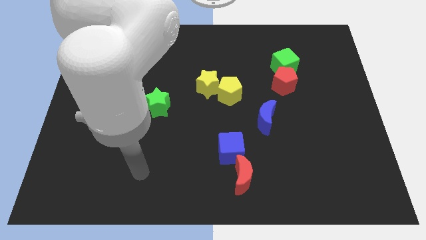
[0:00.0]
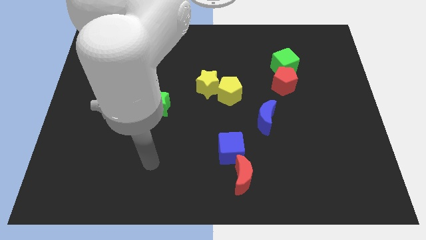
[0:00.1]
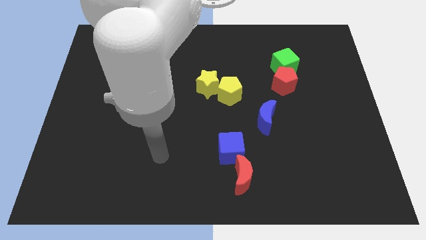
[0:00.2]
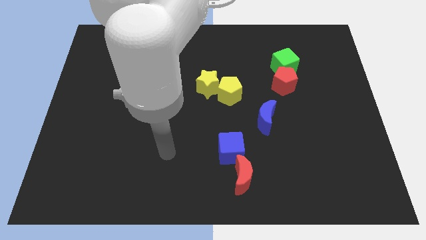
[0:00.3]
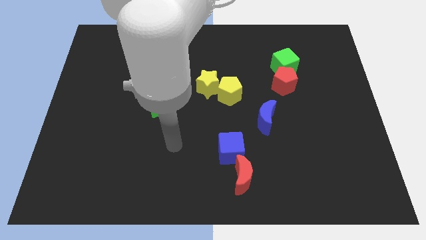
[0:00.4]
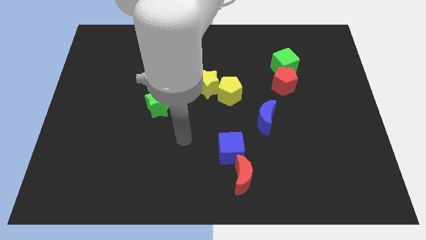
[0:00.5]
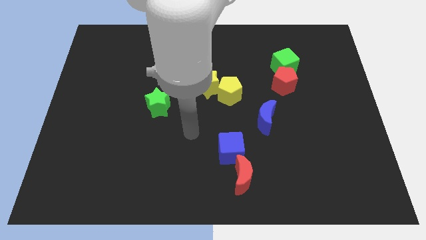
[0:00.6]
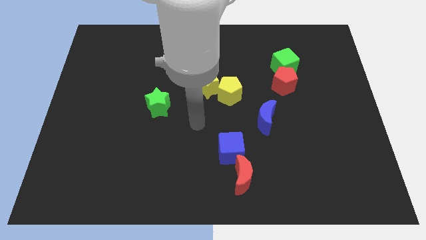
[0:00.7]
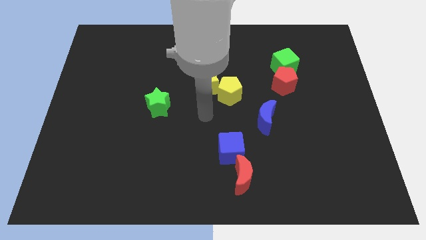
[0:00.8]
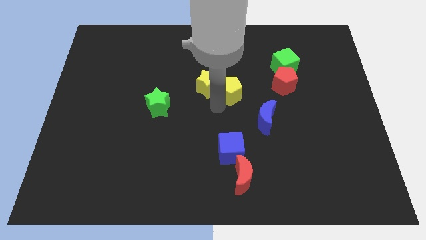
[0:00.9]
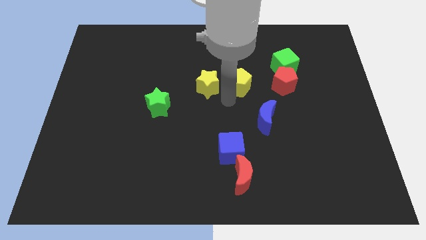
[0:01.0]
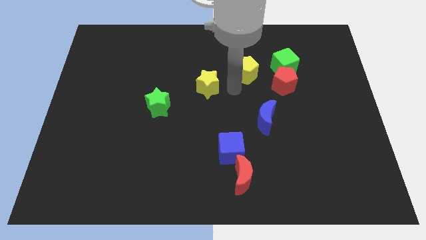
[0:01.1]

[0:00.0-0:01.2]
separate the yellow star from the yellow pentagon

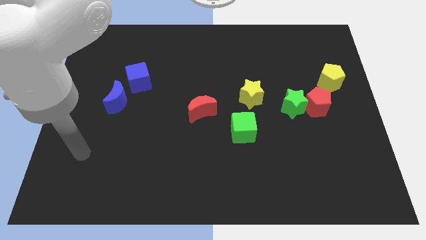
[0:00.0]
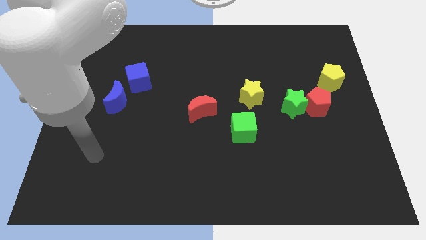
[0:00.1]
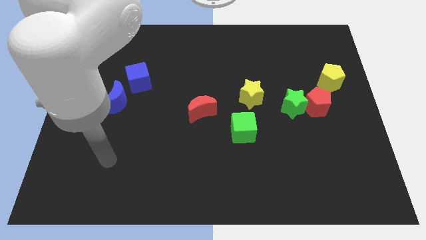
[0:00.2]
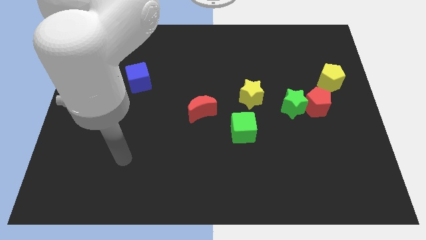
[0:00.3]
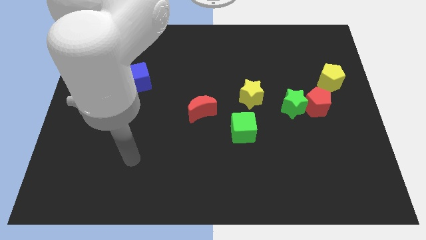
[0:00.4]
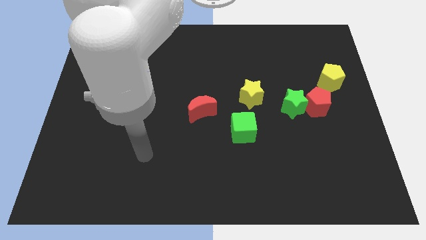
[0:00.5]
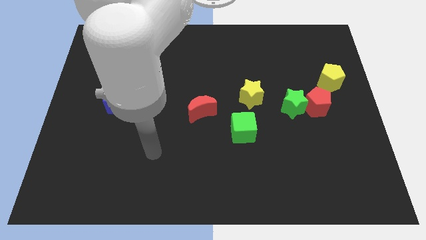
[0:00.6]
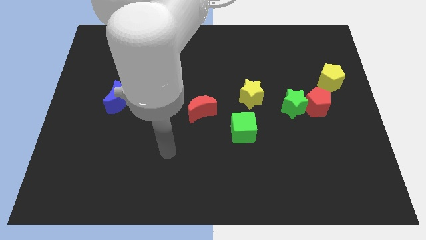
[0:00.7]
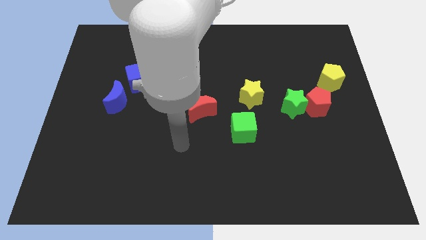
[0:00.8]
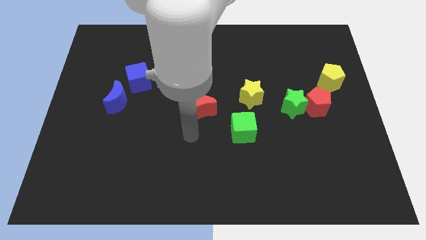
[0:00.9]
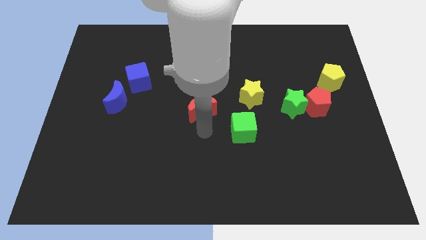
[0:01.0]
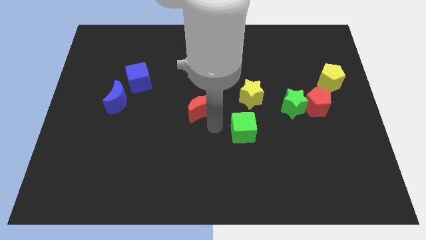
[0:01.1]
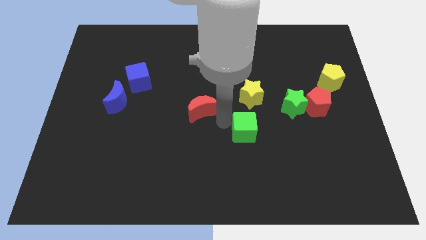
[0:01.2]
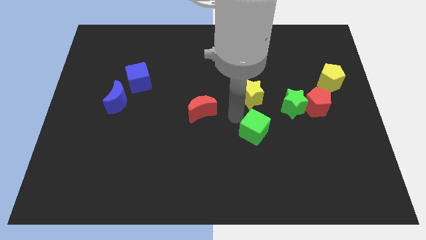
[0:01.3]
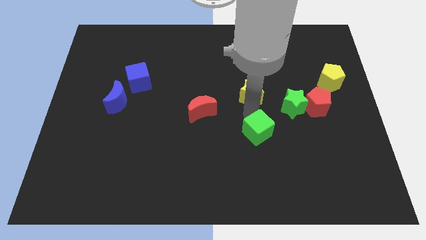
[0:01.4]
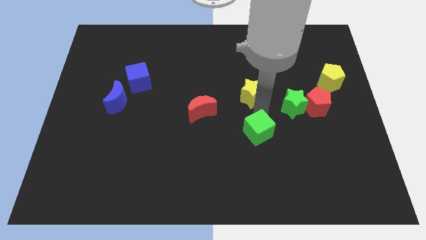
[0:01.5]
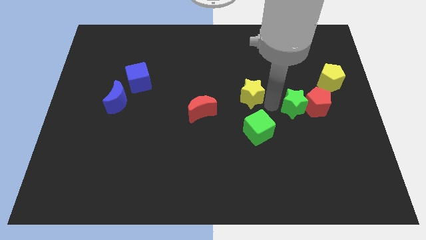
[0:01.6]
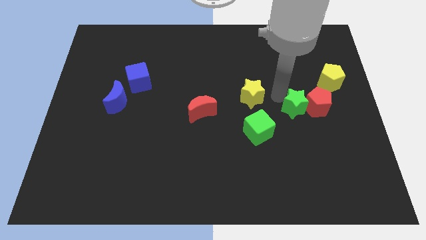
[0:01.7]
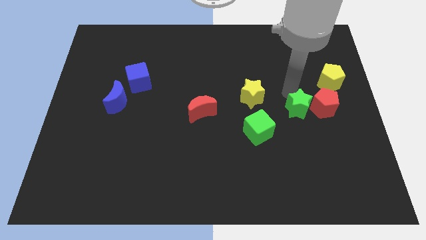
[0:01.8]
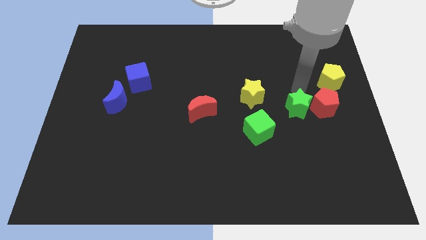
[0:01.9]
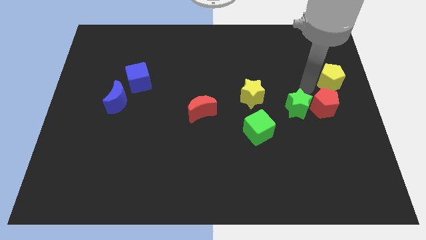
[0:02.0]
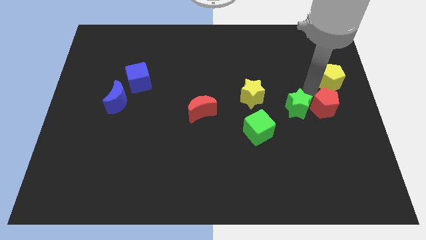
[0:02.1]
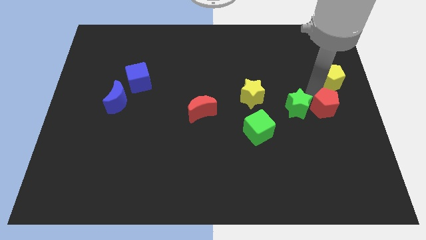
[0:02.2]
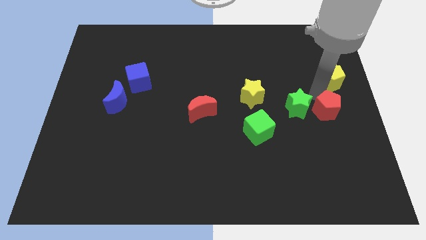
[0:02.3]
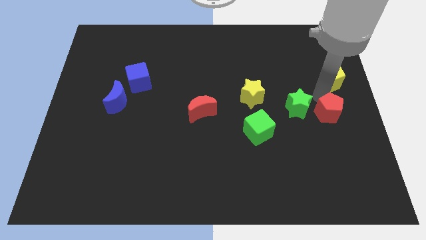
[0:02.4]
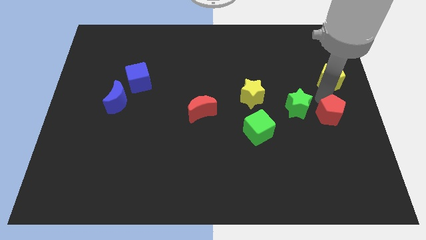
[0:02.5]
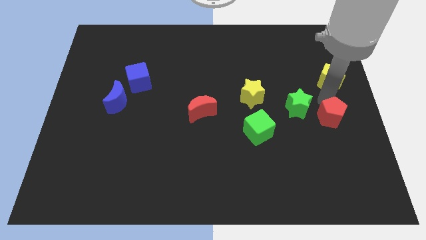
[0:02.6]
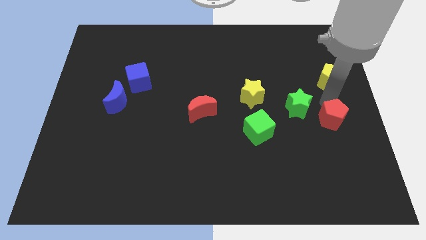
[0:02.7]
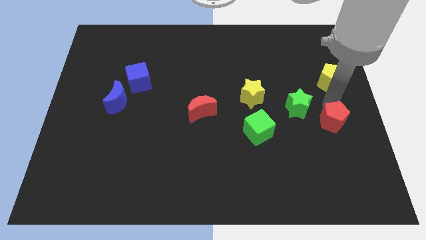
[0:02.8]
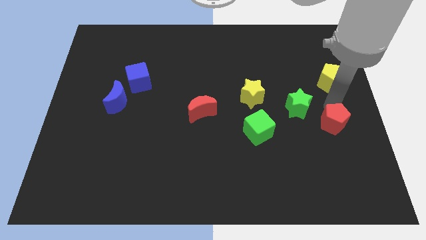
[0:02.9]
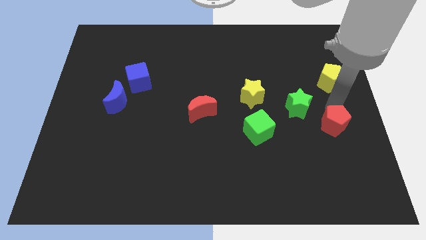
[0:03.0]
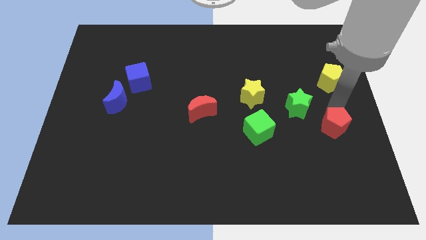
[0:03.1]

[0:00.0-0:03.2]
pull the red pentagon apart from the green star and yellow pentagon

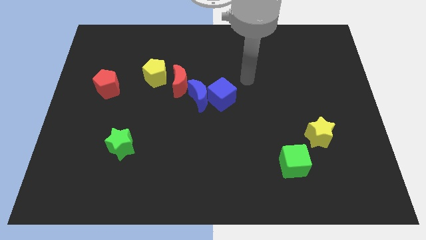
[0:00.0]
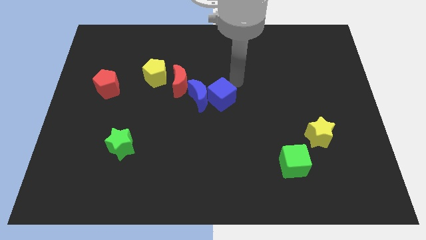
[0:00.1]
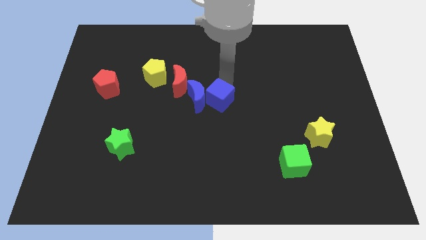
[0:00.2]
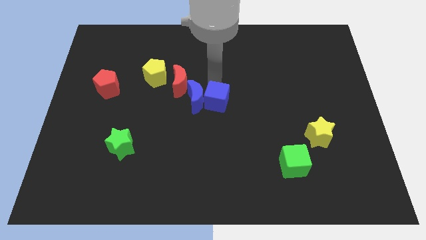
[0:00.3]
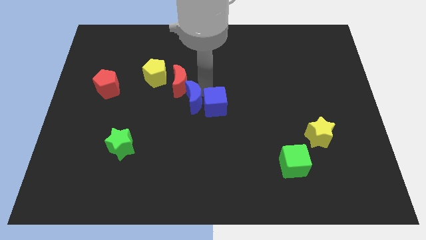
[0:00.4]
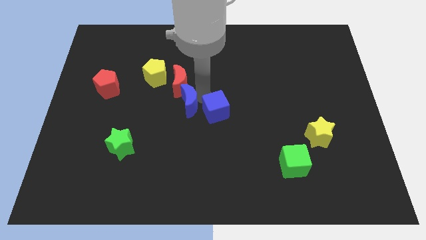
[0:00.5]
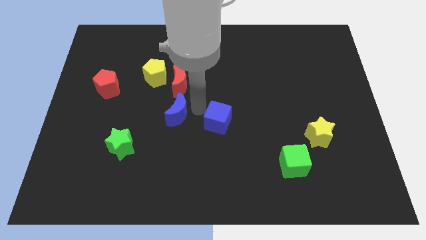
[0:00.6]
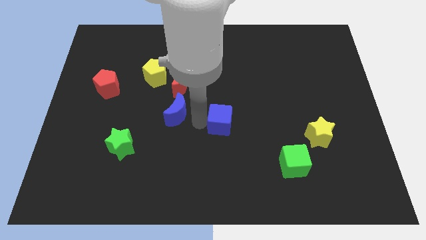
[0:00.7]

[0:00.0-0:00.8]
move the blue cube away from the blue moon

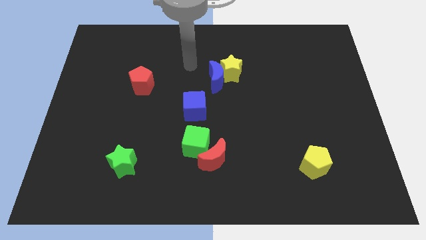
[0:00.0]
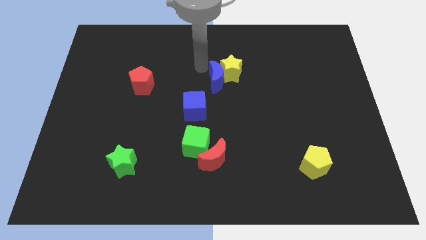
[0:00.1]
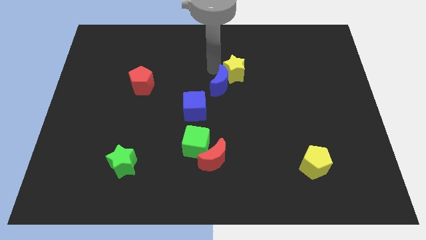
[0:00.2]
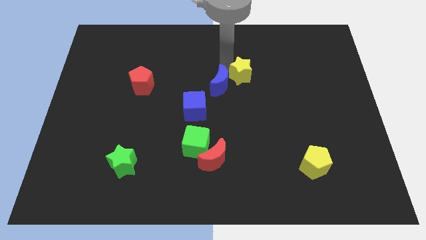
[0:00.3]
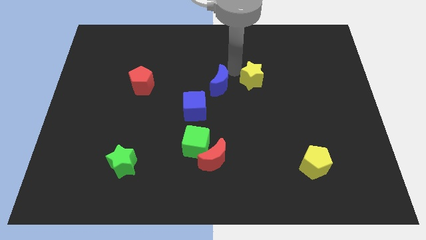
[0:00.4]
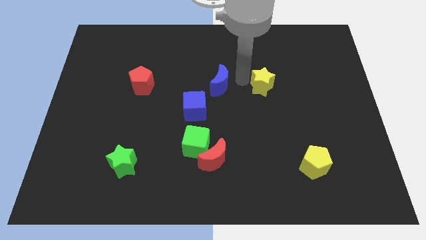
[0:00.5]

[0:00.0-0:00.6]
move the blue moon away from the yellow star

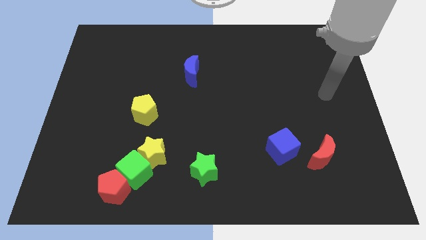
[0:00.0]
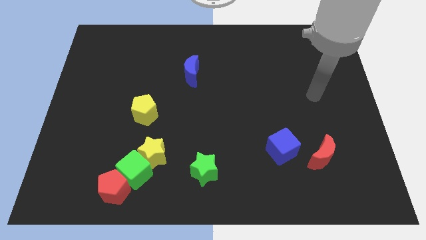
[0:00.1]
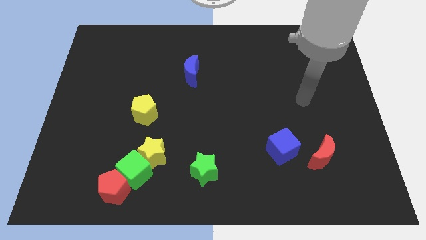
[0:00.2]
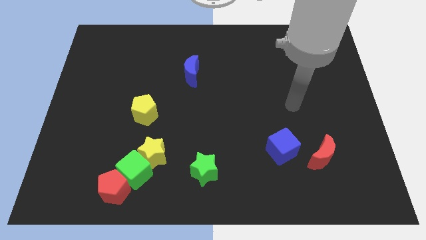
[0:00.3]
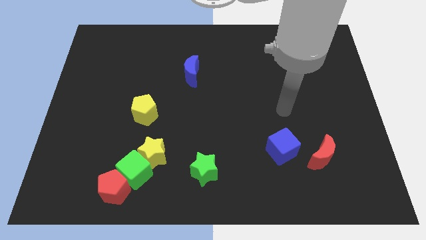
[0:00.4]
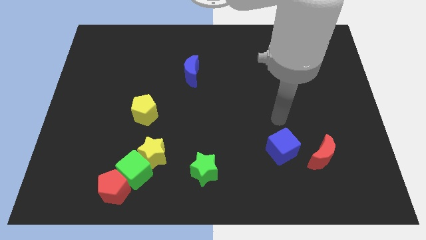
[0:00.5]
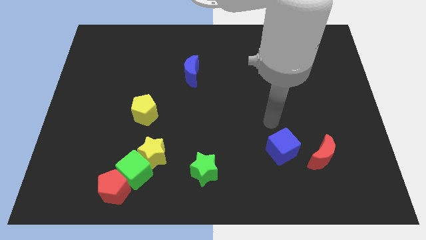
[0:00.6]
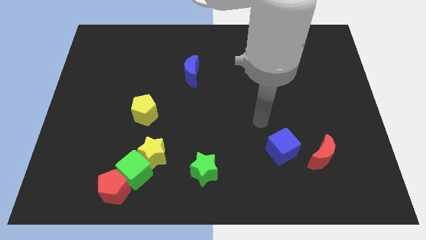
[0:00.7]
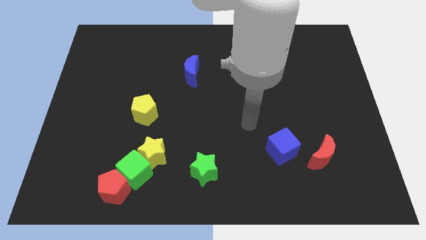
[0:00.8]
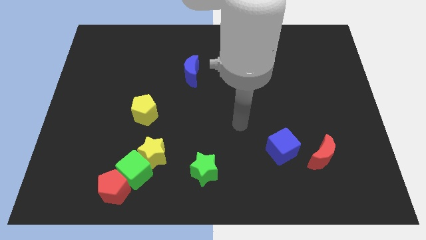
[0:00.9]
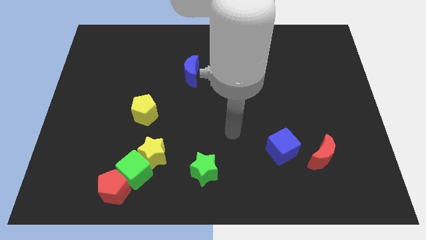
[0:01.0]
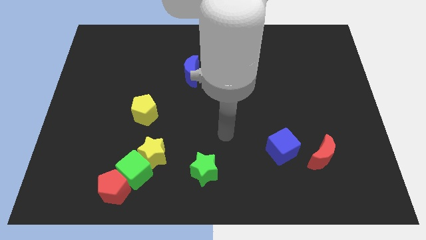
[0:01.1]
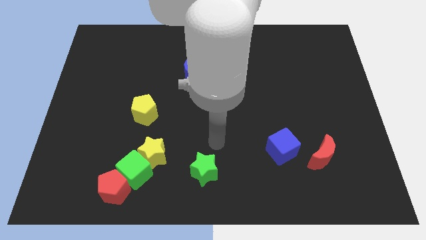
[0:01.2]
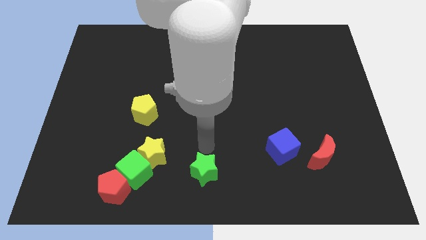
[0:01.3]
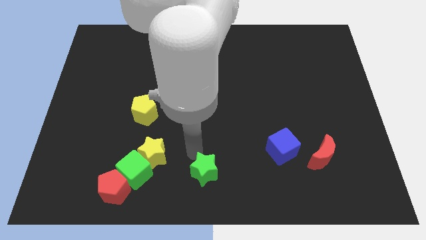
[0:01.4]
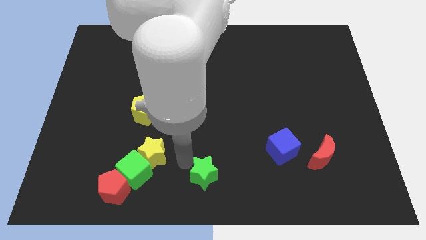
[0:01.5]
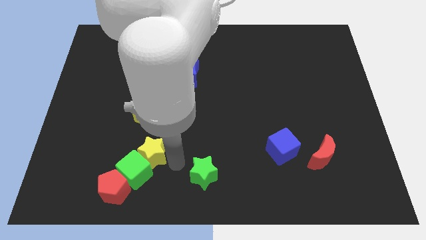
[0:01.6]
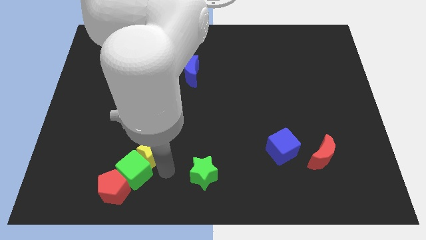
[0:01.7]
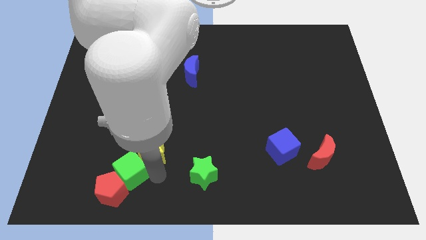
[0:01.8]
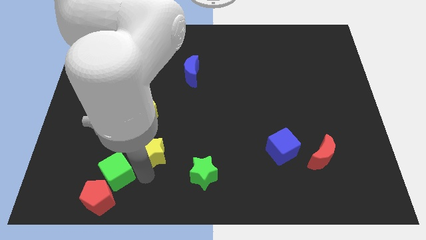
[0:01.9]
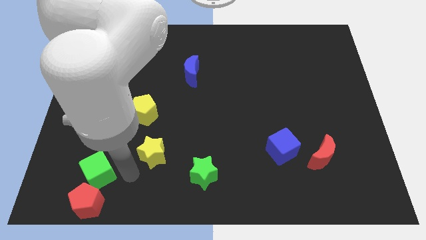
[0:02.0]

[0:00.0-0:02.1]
separate the yellow star from the green cube

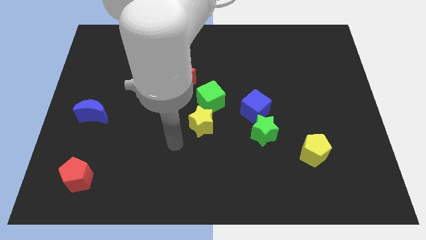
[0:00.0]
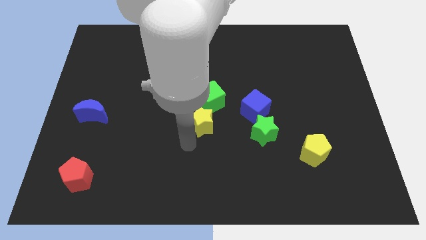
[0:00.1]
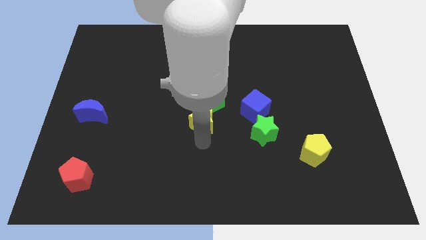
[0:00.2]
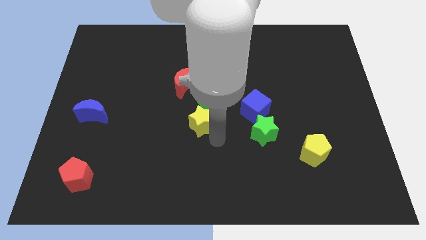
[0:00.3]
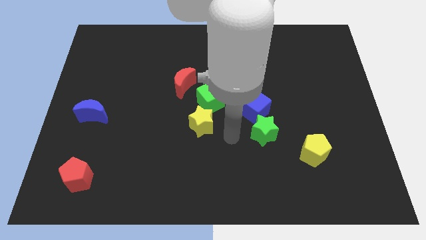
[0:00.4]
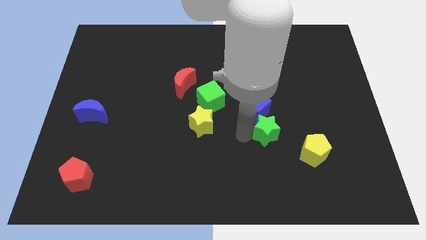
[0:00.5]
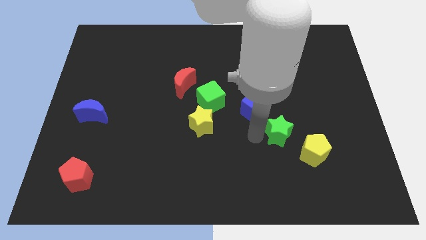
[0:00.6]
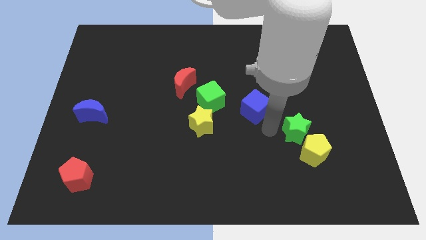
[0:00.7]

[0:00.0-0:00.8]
separate the blue cube from the green star

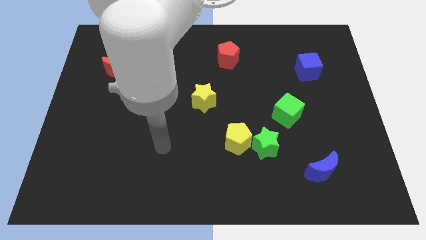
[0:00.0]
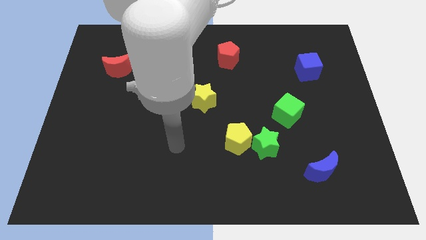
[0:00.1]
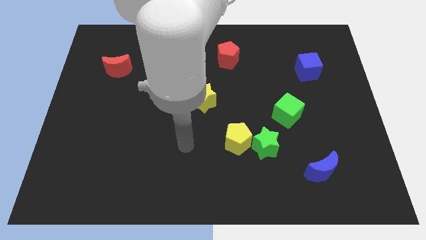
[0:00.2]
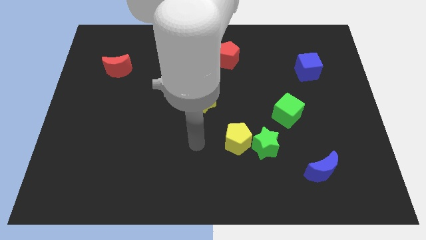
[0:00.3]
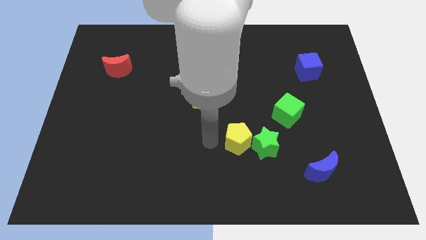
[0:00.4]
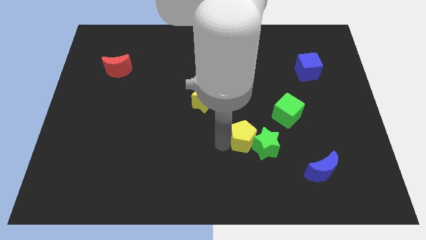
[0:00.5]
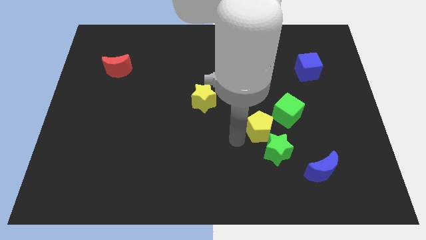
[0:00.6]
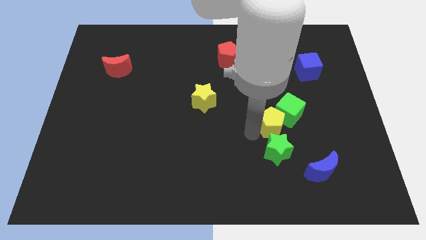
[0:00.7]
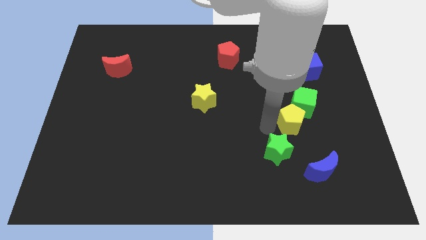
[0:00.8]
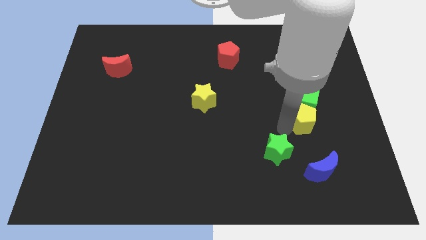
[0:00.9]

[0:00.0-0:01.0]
move the green star away from the yellow pentagon
